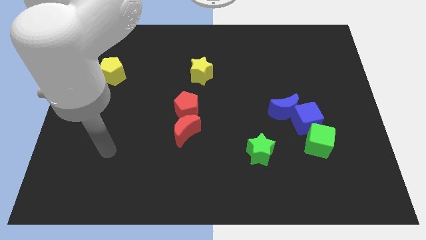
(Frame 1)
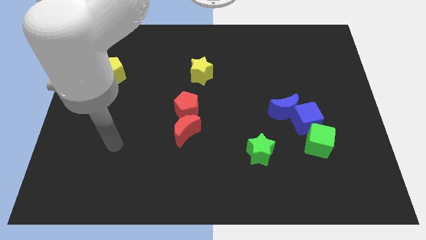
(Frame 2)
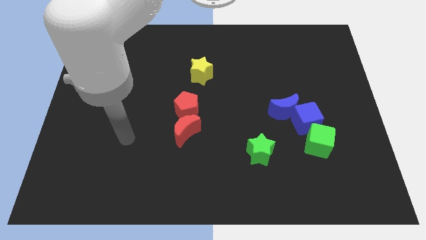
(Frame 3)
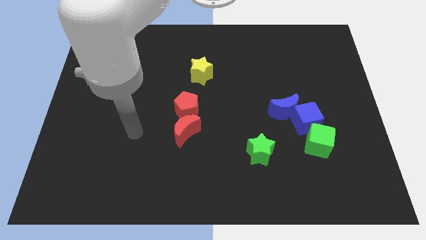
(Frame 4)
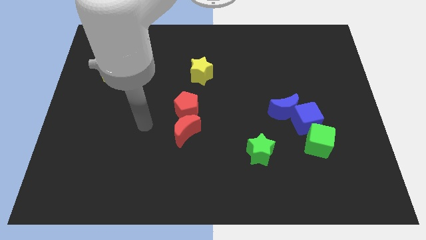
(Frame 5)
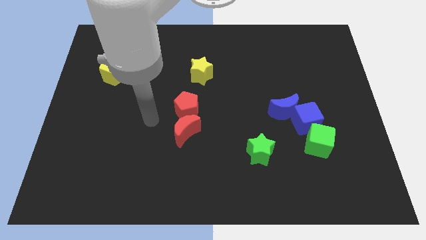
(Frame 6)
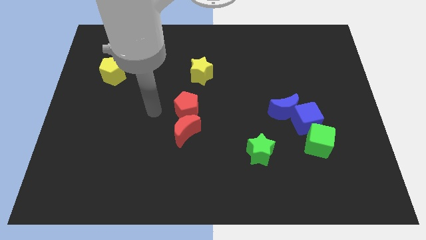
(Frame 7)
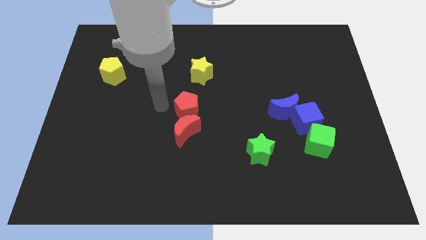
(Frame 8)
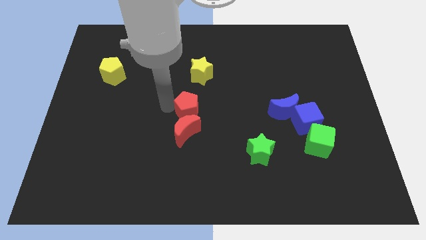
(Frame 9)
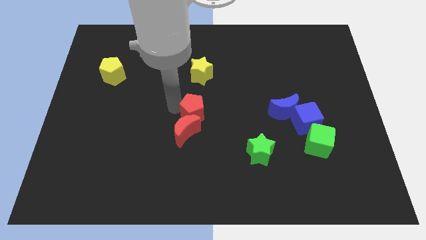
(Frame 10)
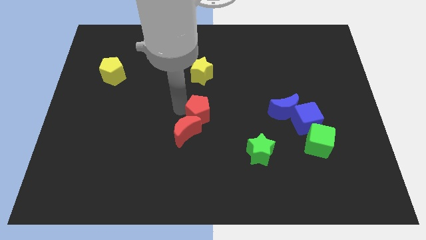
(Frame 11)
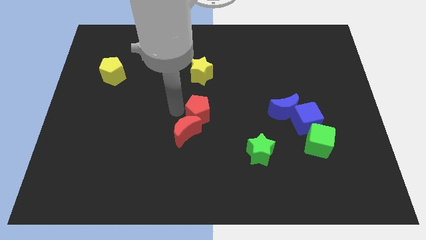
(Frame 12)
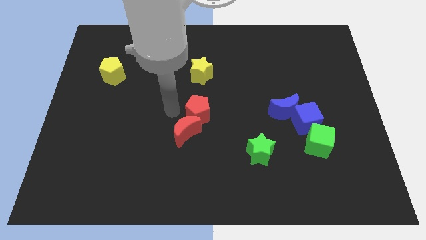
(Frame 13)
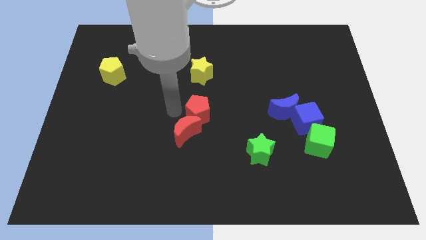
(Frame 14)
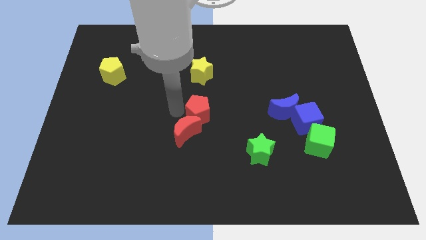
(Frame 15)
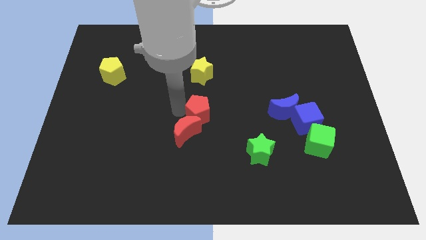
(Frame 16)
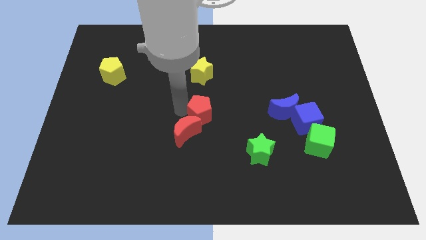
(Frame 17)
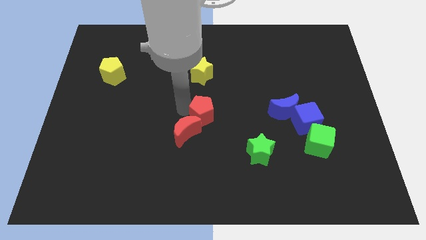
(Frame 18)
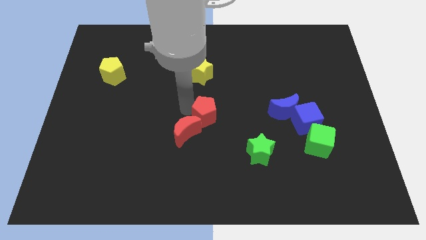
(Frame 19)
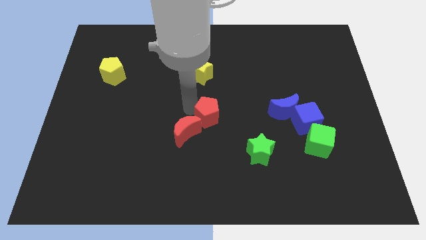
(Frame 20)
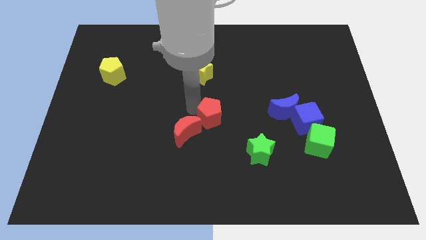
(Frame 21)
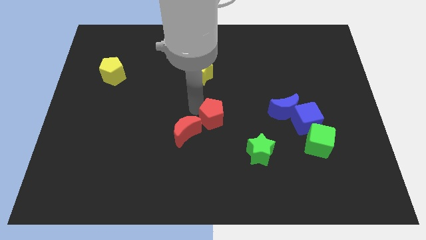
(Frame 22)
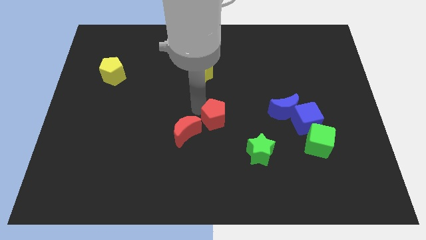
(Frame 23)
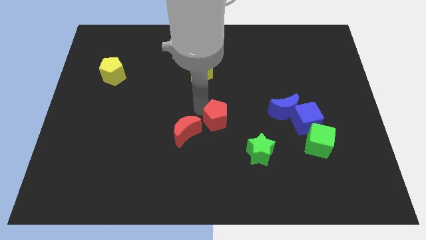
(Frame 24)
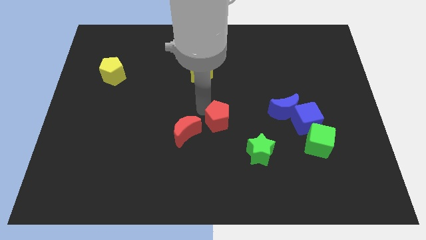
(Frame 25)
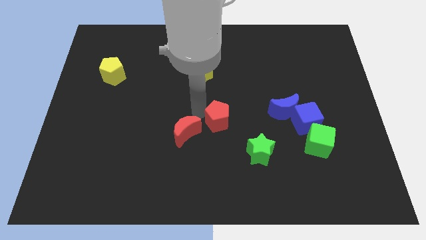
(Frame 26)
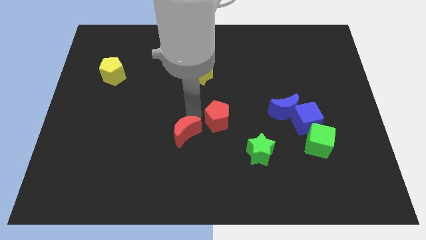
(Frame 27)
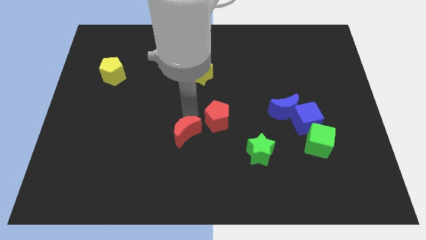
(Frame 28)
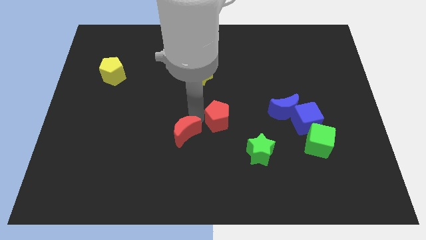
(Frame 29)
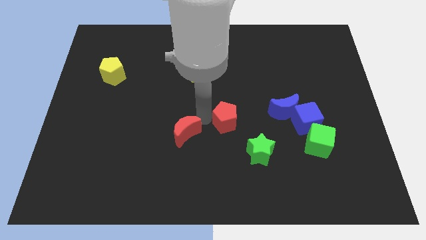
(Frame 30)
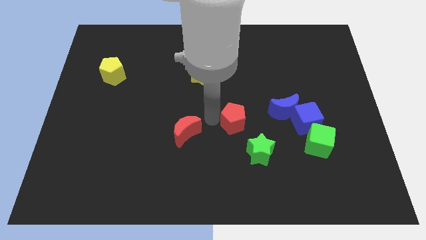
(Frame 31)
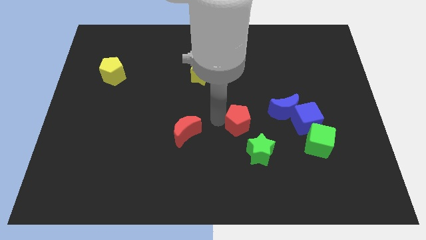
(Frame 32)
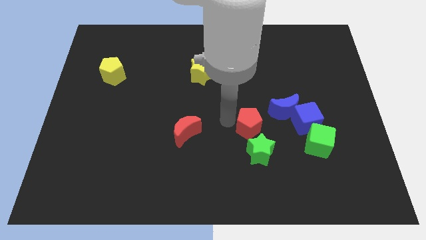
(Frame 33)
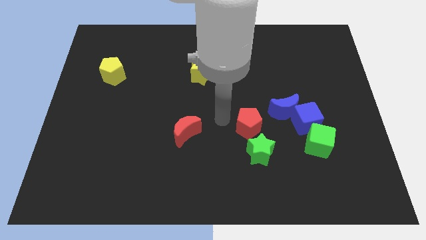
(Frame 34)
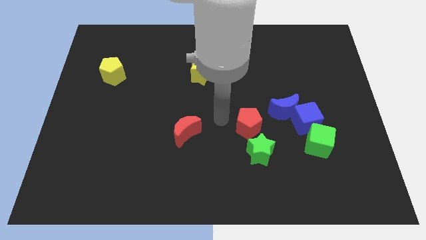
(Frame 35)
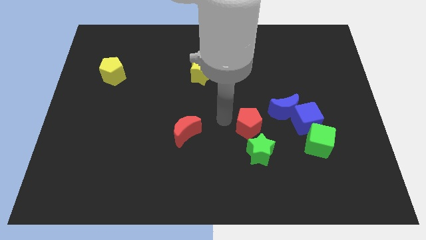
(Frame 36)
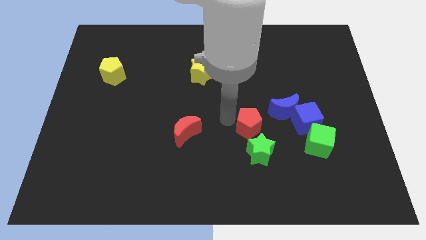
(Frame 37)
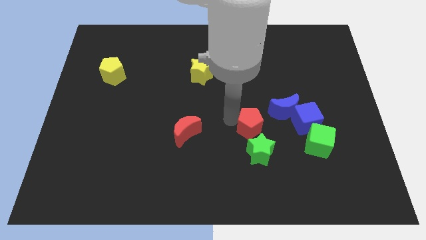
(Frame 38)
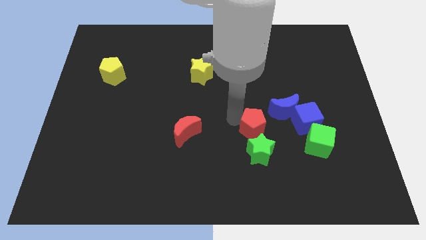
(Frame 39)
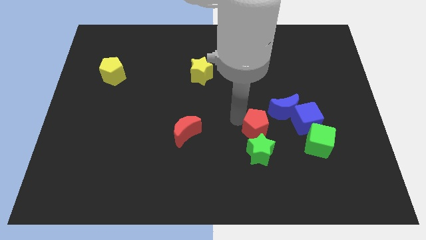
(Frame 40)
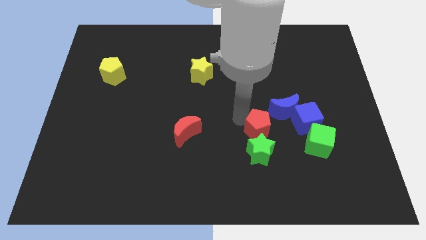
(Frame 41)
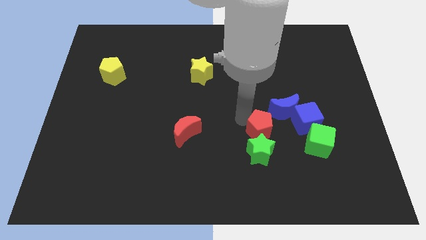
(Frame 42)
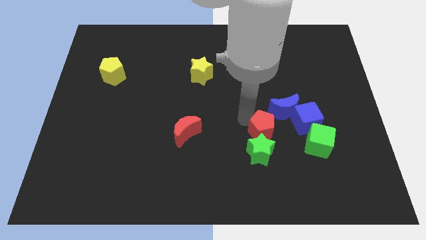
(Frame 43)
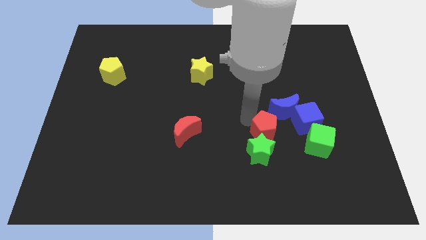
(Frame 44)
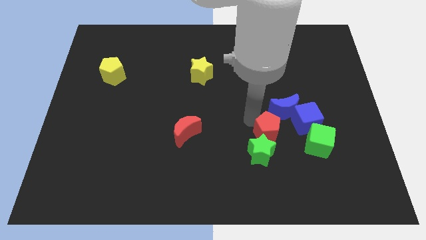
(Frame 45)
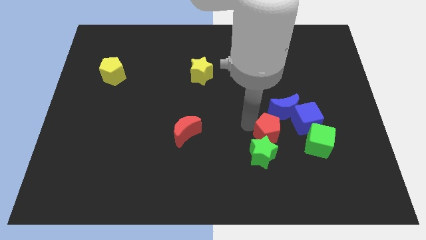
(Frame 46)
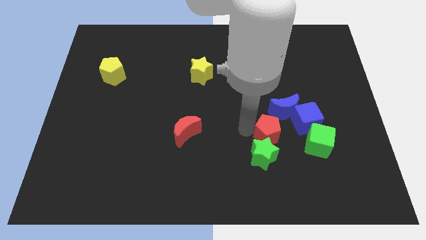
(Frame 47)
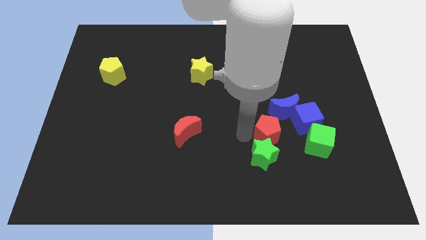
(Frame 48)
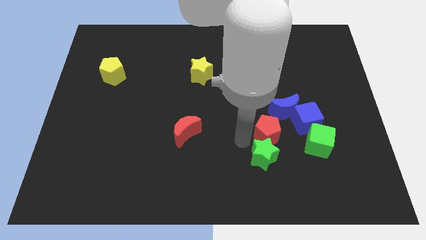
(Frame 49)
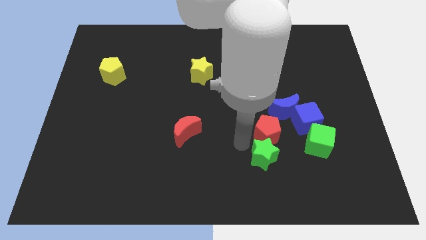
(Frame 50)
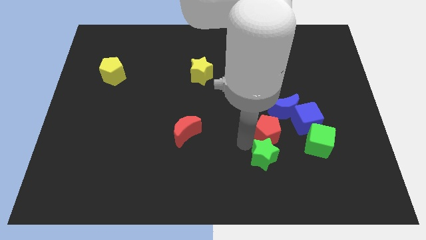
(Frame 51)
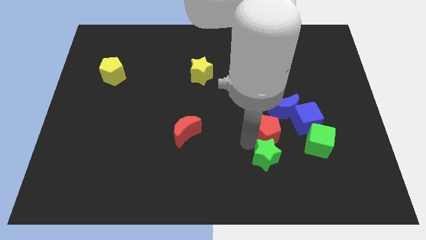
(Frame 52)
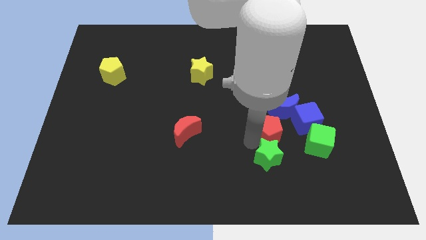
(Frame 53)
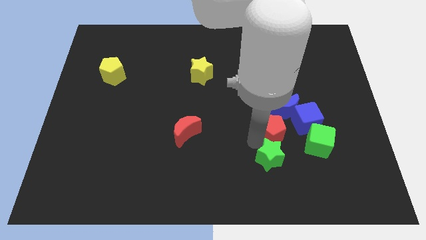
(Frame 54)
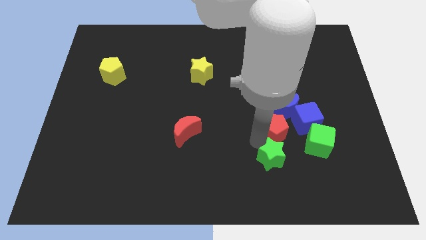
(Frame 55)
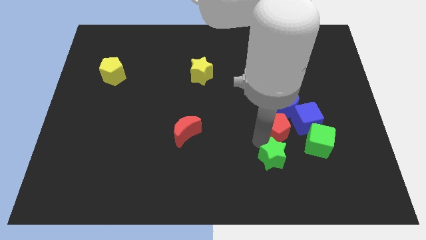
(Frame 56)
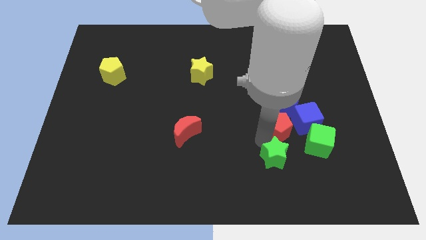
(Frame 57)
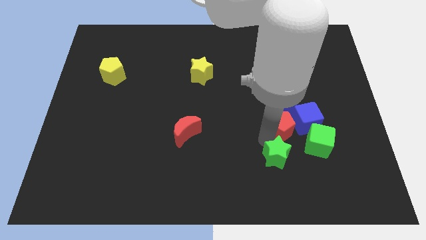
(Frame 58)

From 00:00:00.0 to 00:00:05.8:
move the red pentagon close to the blue cube

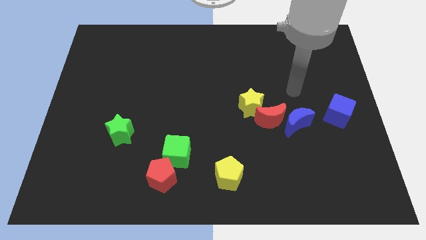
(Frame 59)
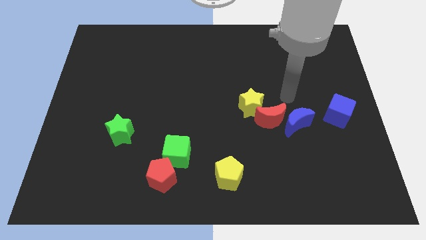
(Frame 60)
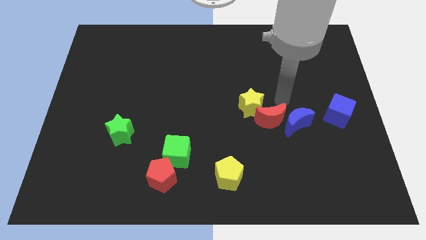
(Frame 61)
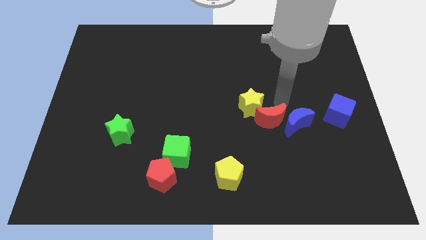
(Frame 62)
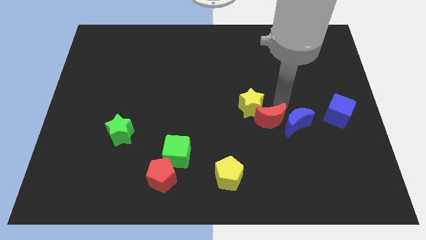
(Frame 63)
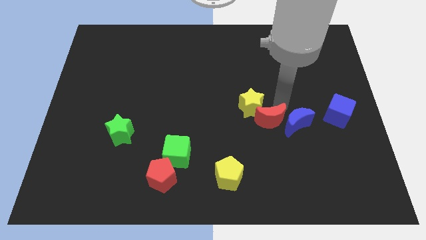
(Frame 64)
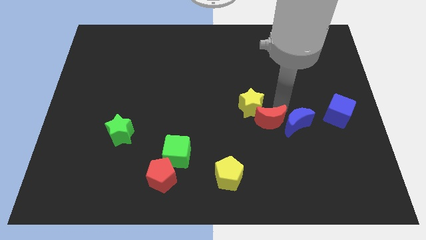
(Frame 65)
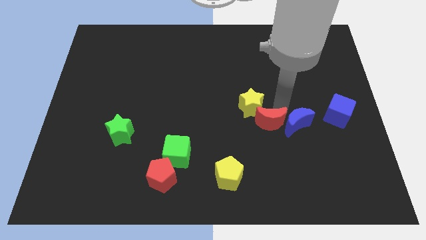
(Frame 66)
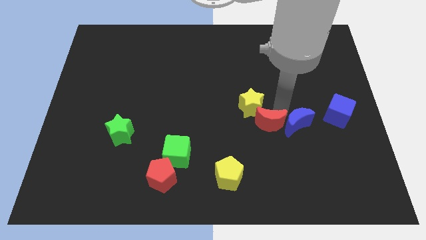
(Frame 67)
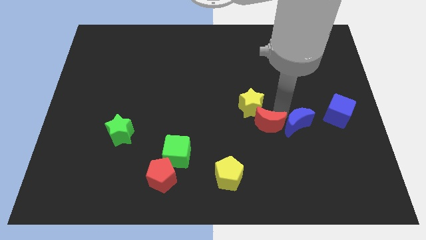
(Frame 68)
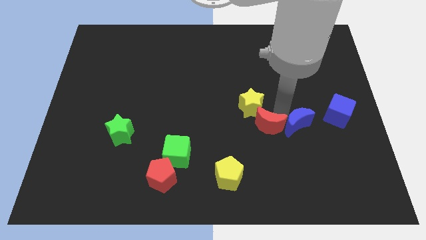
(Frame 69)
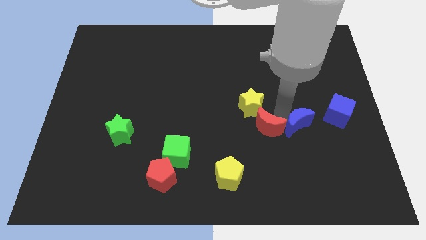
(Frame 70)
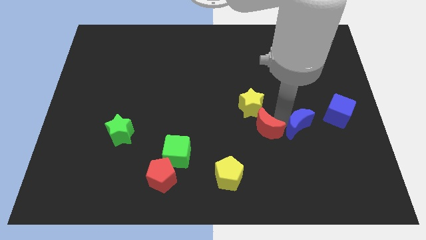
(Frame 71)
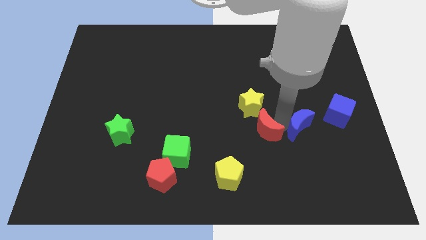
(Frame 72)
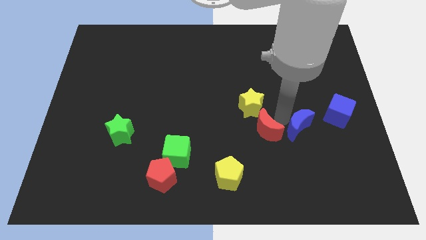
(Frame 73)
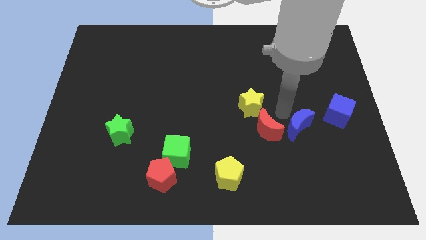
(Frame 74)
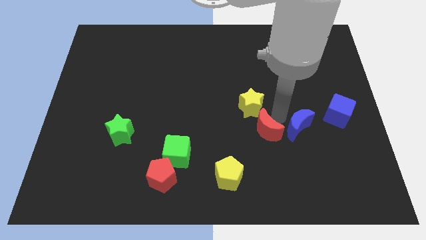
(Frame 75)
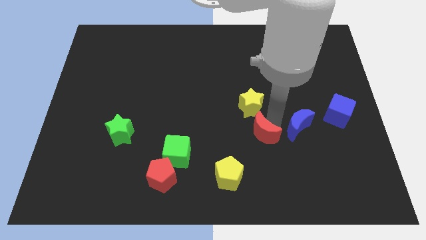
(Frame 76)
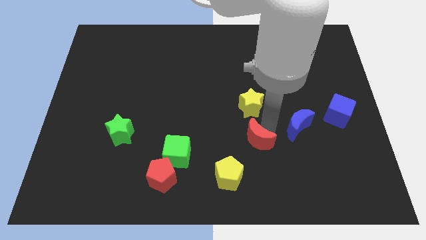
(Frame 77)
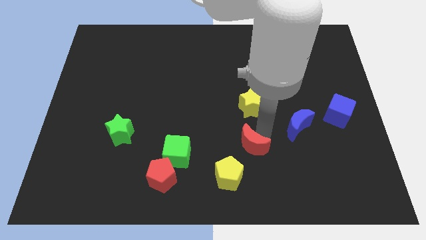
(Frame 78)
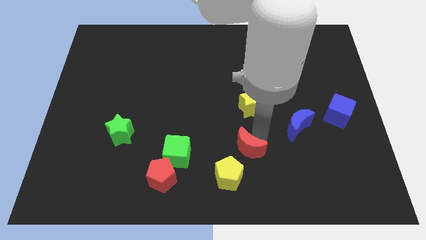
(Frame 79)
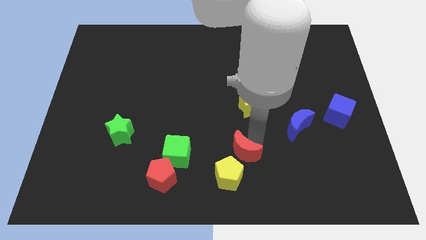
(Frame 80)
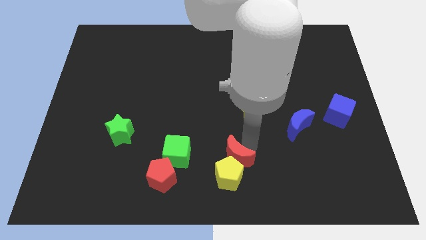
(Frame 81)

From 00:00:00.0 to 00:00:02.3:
slide the red moon to the yellow pentagon
